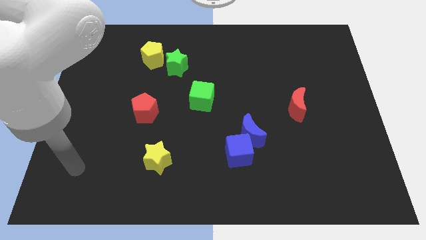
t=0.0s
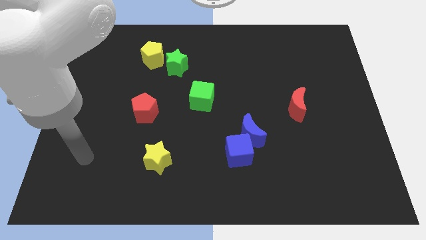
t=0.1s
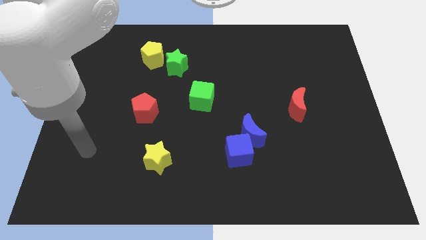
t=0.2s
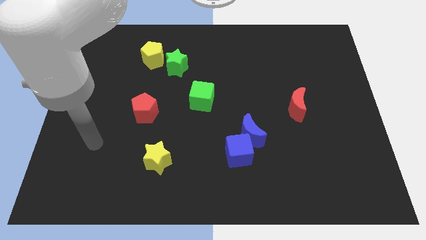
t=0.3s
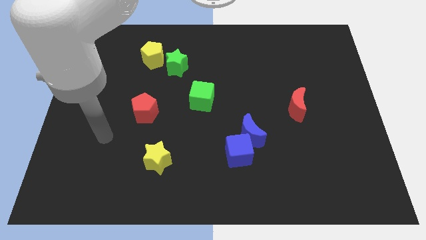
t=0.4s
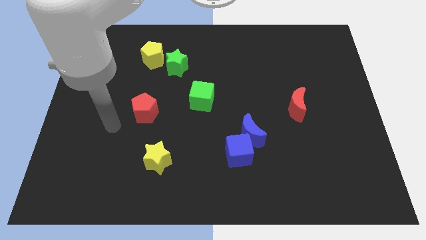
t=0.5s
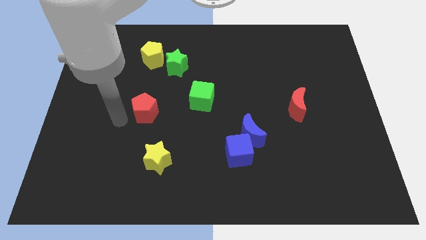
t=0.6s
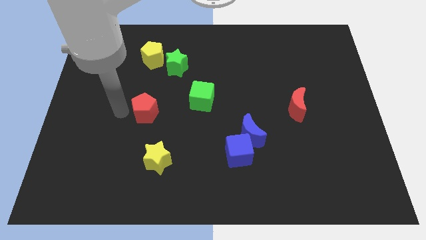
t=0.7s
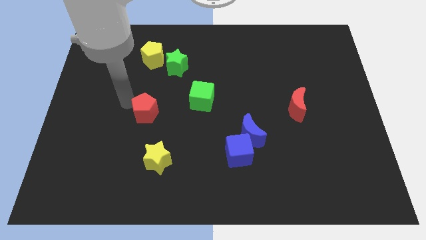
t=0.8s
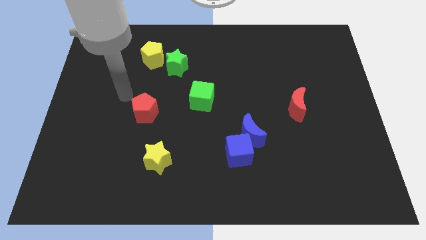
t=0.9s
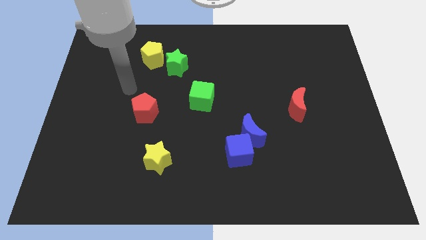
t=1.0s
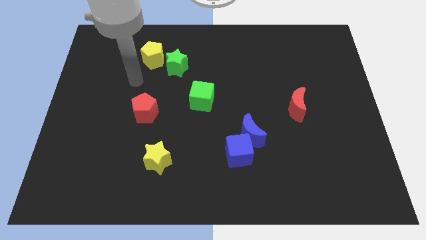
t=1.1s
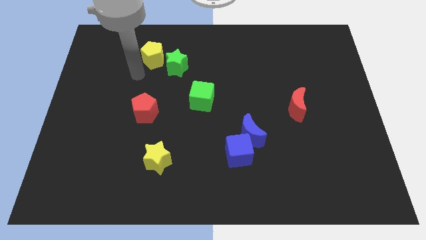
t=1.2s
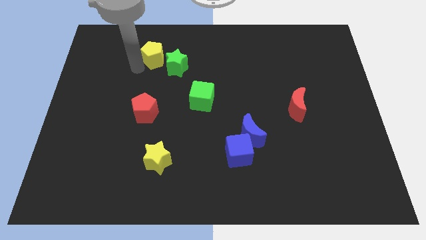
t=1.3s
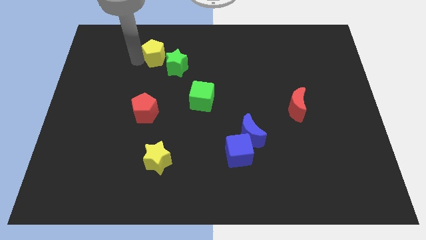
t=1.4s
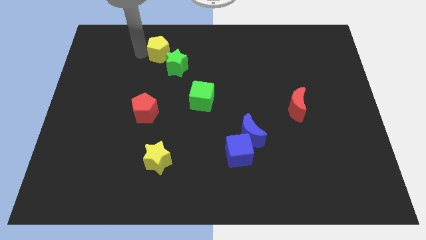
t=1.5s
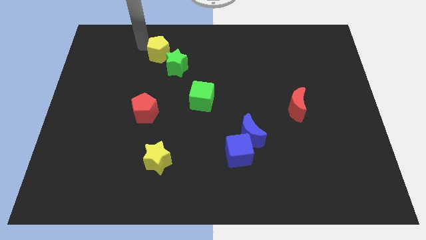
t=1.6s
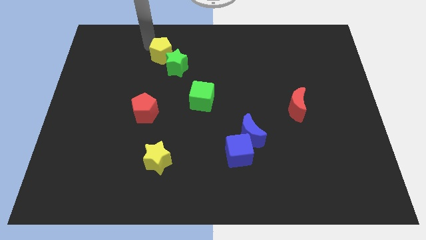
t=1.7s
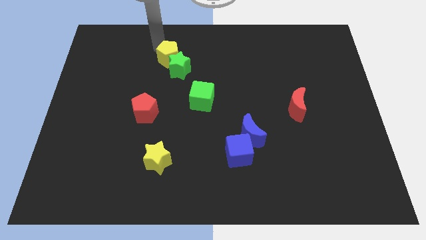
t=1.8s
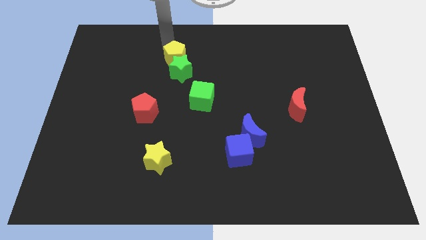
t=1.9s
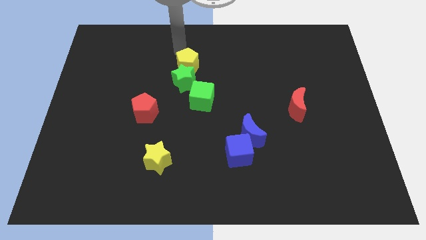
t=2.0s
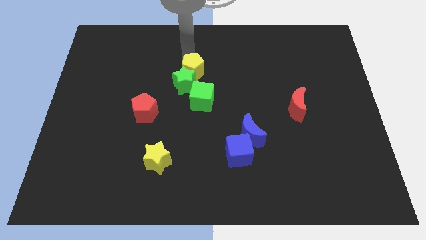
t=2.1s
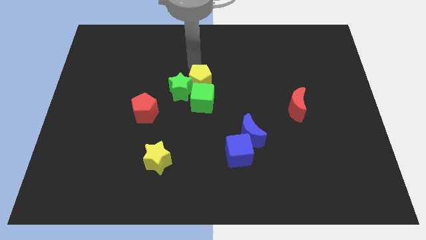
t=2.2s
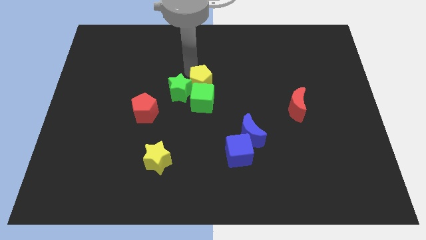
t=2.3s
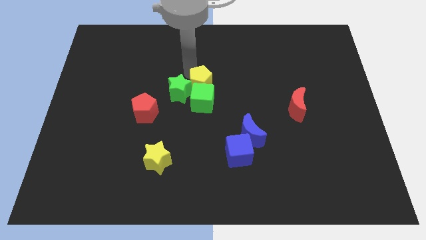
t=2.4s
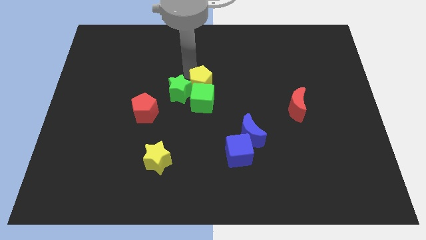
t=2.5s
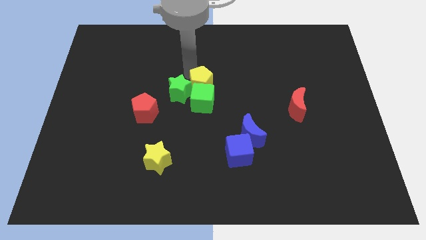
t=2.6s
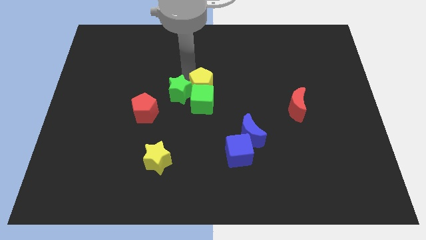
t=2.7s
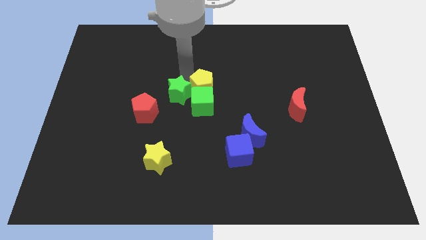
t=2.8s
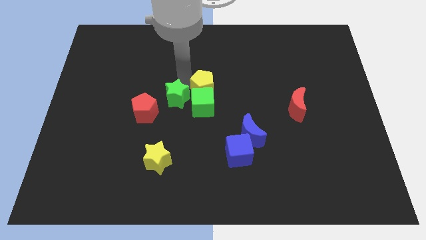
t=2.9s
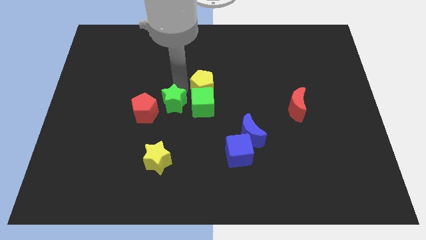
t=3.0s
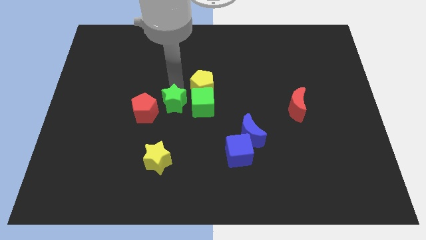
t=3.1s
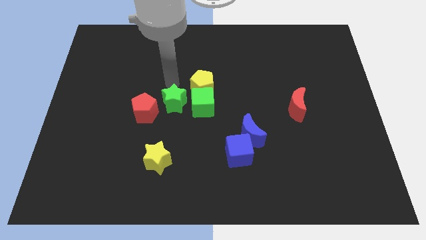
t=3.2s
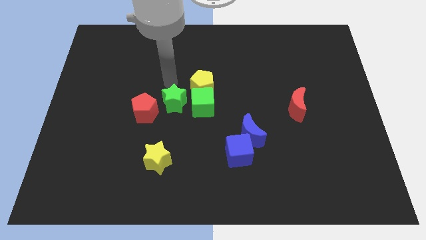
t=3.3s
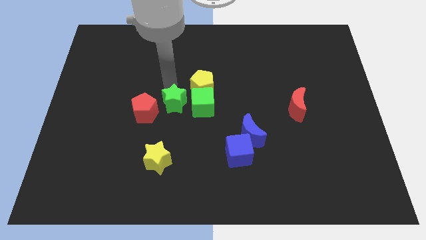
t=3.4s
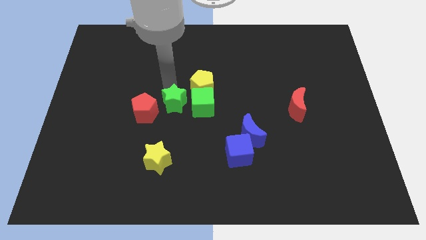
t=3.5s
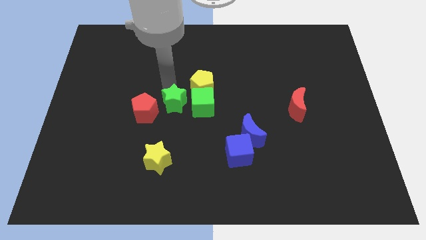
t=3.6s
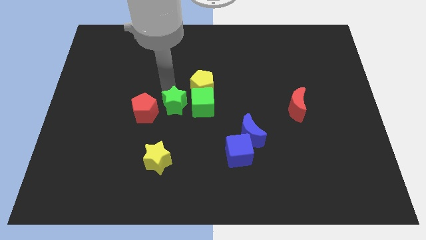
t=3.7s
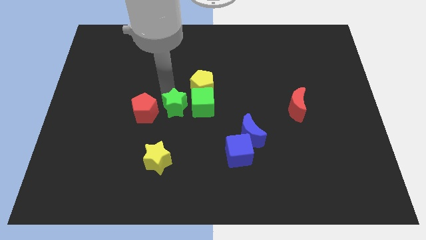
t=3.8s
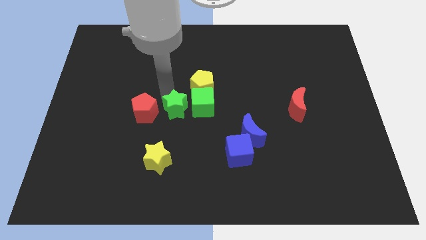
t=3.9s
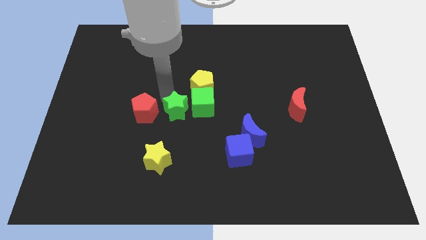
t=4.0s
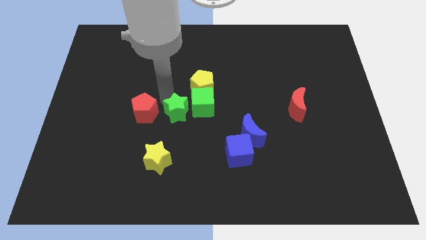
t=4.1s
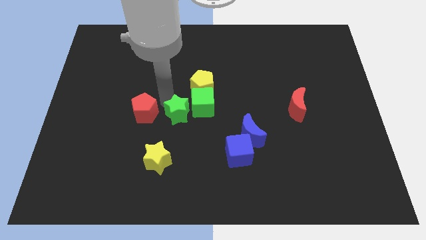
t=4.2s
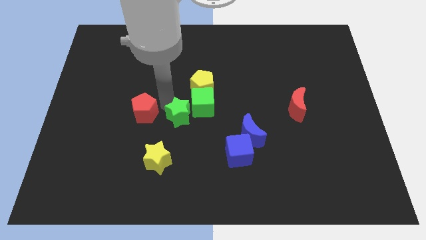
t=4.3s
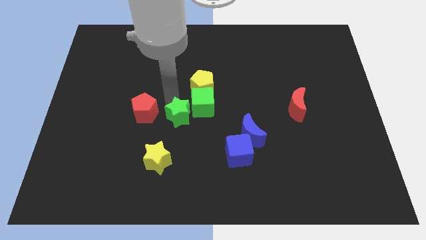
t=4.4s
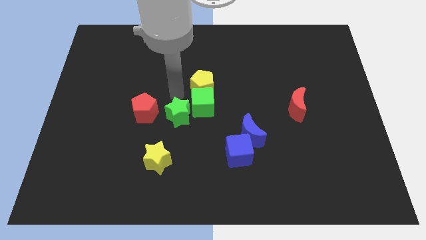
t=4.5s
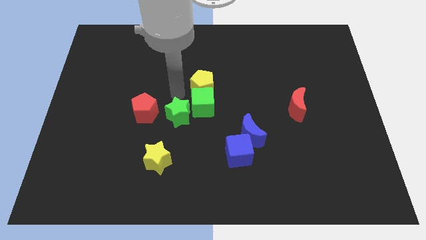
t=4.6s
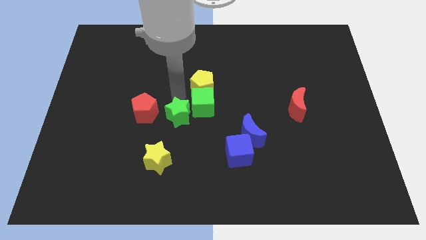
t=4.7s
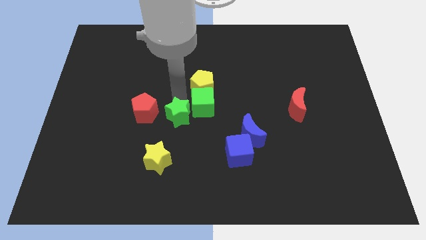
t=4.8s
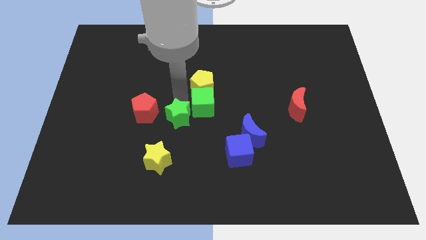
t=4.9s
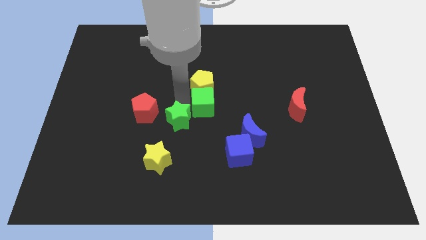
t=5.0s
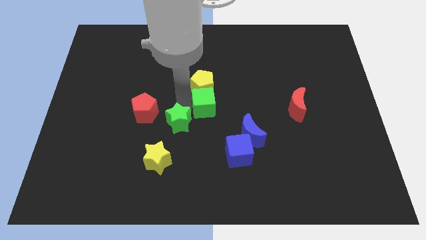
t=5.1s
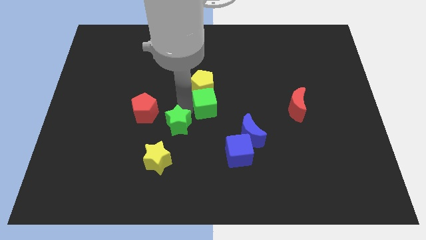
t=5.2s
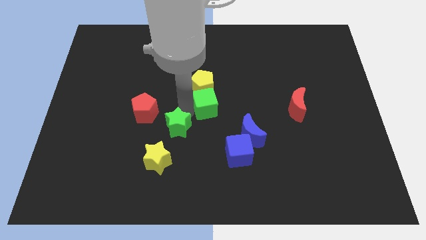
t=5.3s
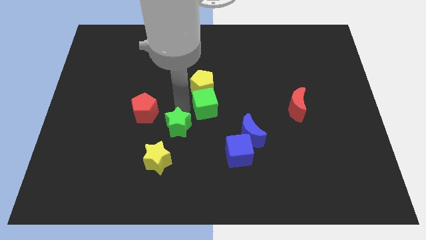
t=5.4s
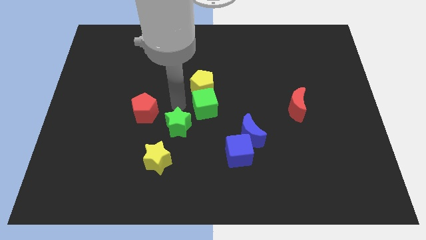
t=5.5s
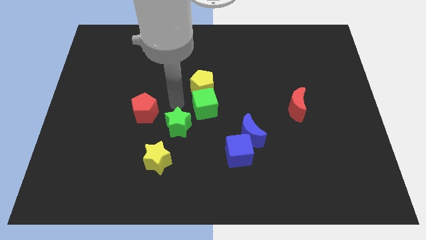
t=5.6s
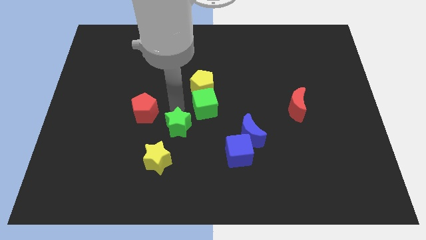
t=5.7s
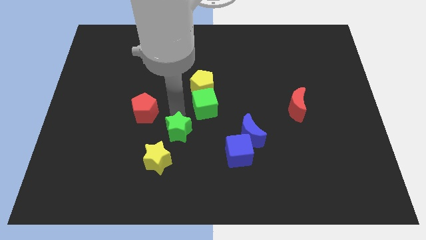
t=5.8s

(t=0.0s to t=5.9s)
push the green star downwards

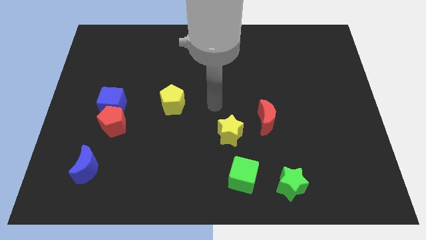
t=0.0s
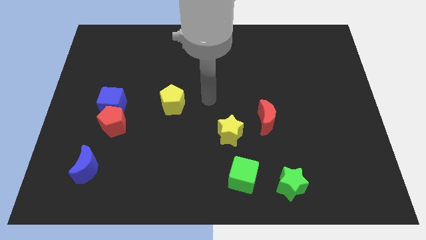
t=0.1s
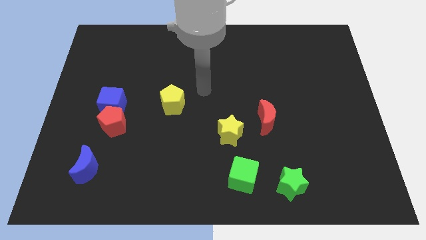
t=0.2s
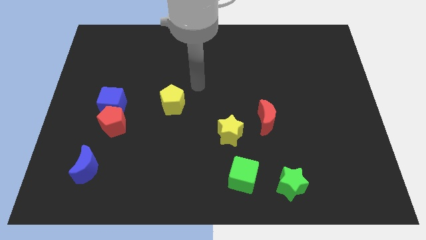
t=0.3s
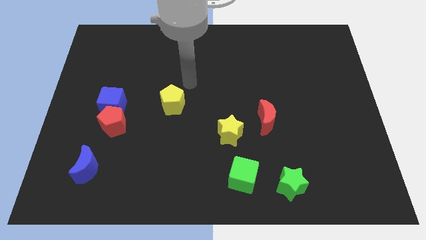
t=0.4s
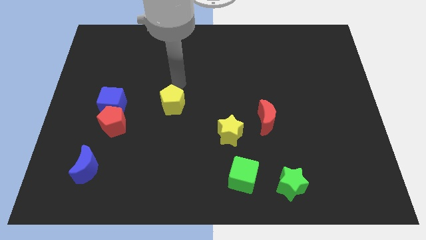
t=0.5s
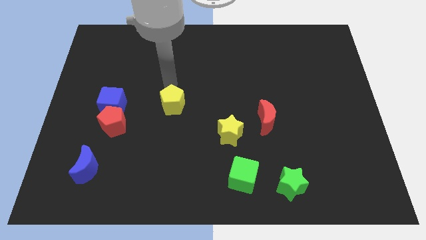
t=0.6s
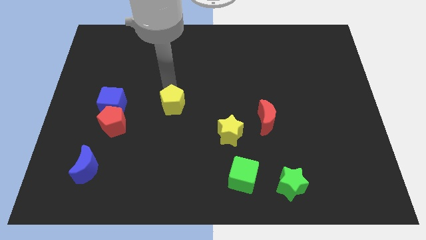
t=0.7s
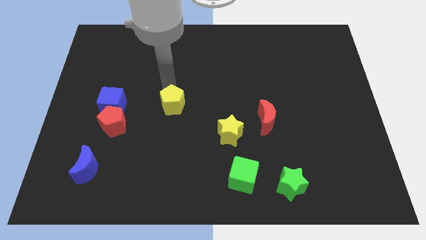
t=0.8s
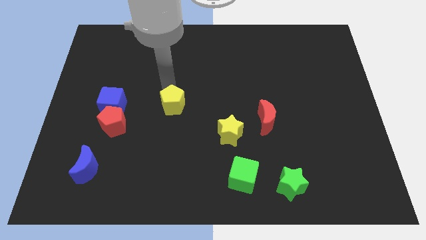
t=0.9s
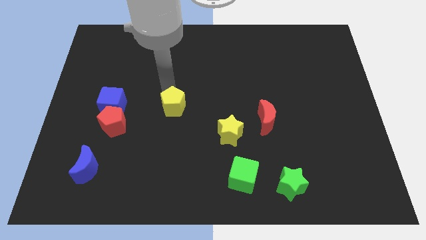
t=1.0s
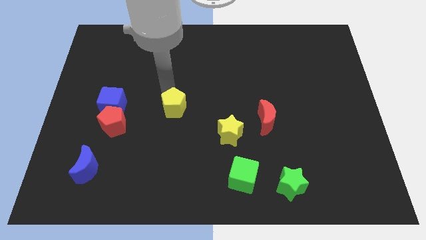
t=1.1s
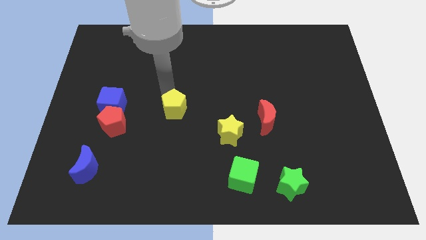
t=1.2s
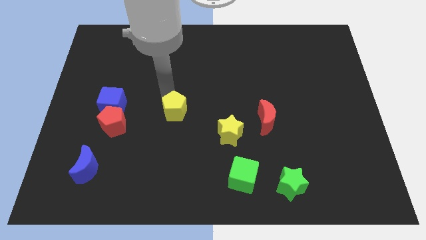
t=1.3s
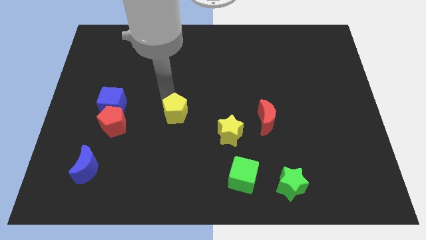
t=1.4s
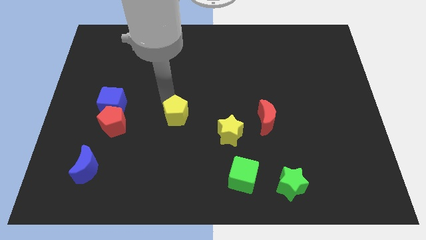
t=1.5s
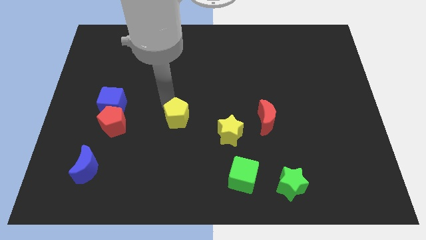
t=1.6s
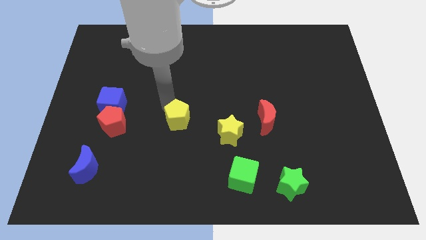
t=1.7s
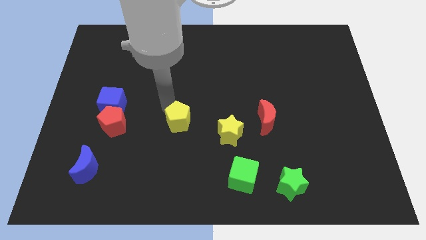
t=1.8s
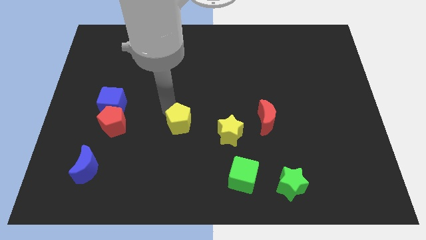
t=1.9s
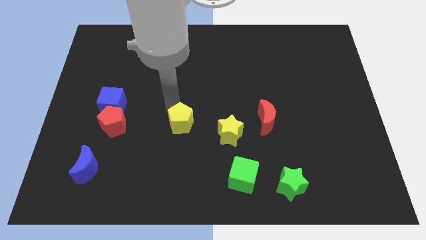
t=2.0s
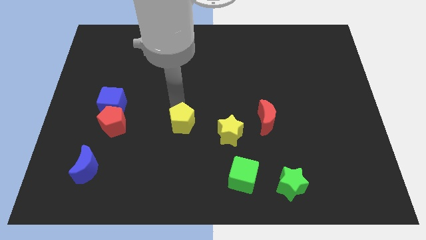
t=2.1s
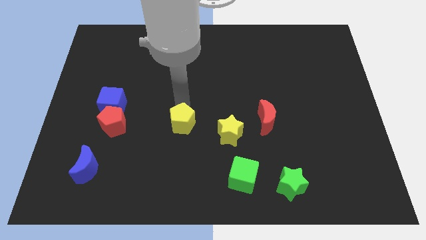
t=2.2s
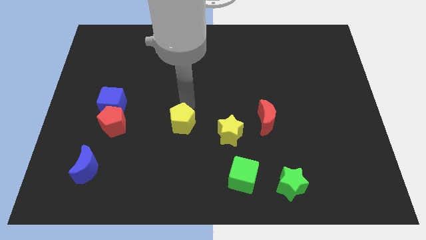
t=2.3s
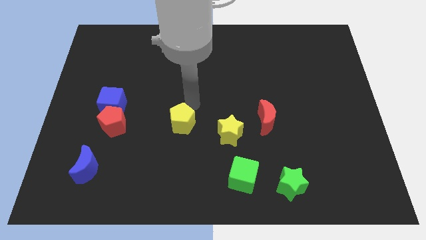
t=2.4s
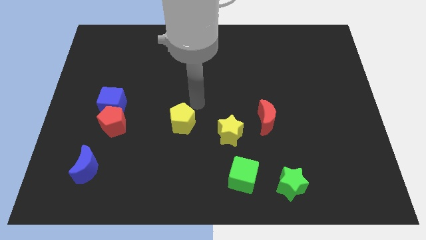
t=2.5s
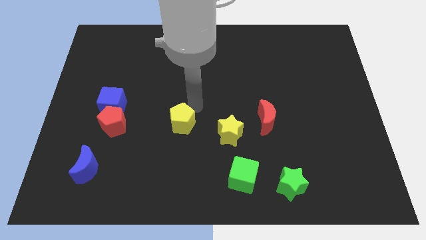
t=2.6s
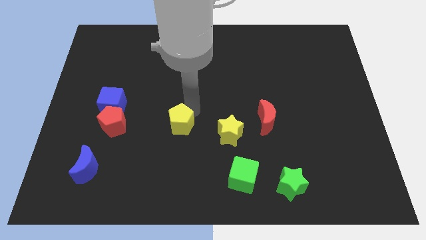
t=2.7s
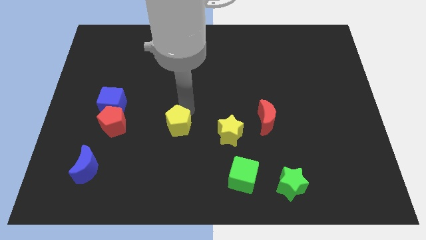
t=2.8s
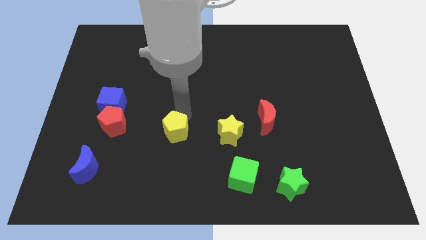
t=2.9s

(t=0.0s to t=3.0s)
slide the yellow pentagon somewhat downwards
